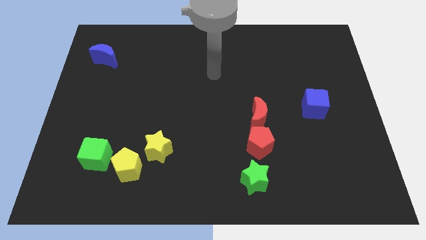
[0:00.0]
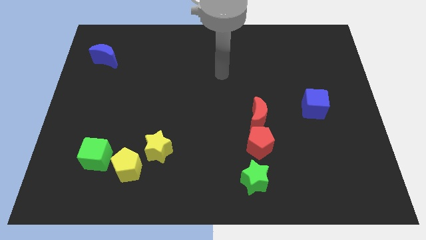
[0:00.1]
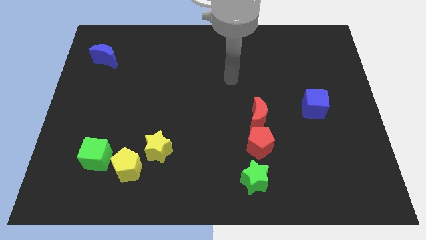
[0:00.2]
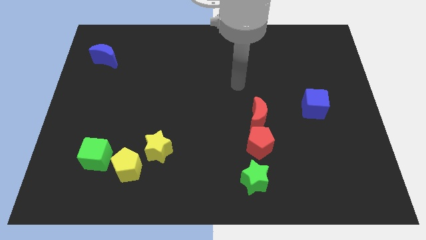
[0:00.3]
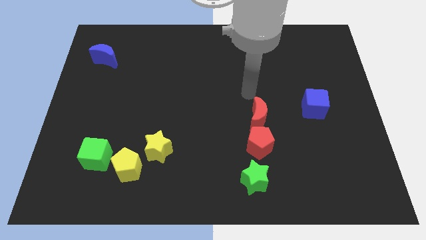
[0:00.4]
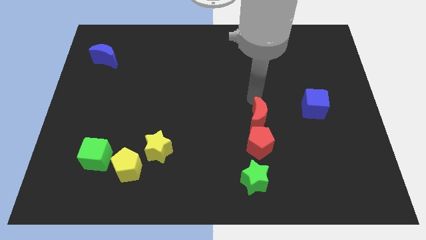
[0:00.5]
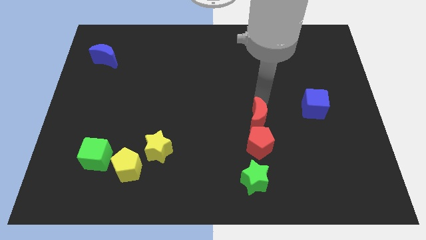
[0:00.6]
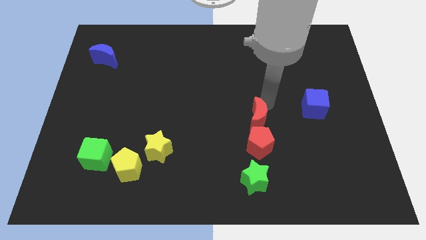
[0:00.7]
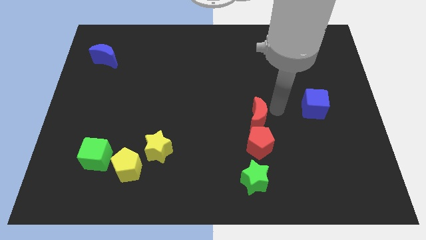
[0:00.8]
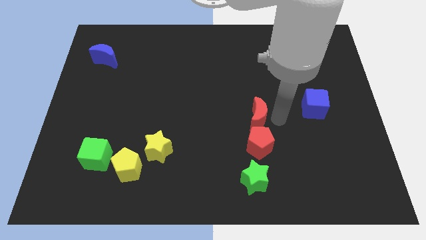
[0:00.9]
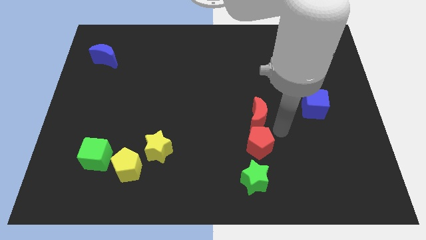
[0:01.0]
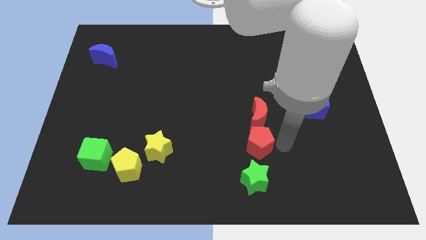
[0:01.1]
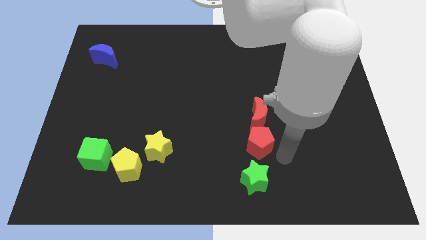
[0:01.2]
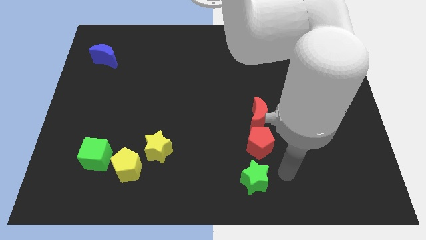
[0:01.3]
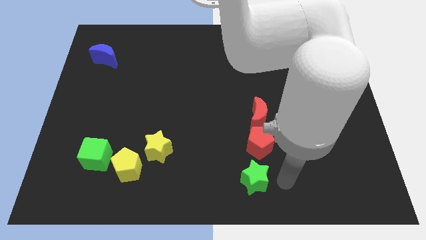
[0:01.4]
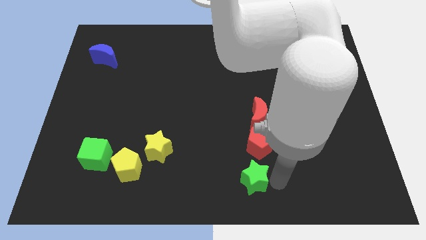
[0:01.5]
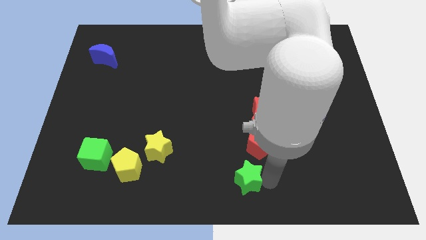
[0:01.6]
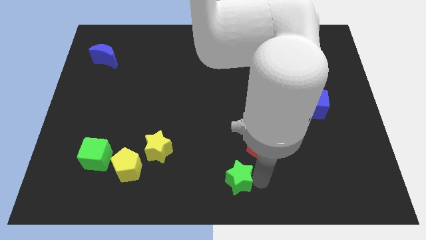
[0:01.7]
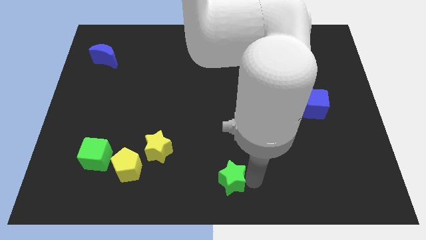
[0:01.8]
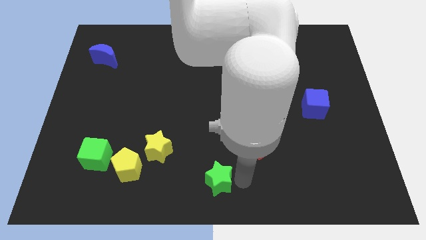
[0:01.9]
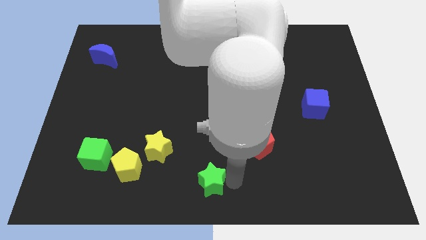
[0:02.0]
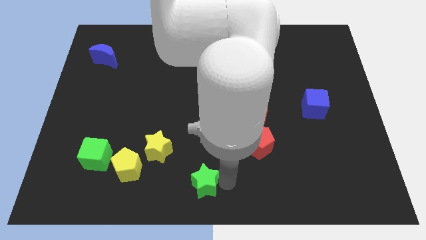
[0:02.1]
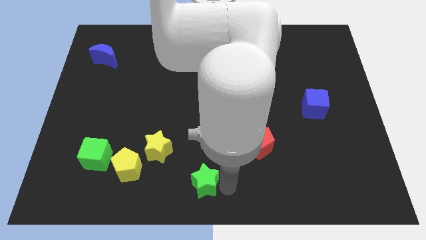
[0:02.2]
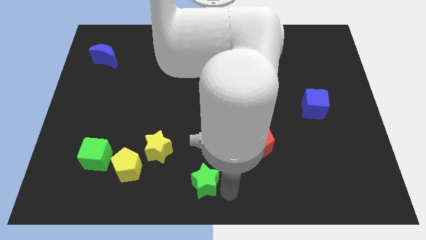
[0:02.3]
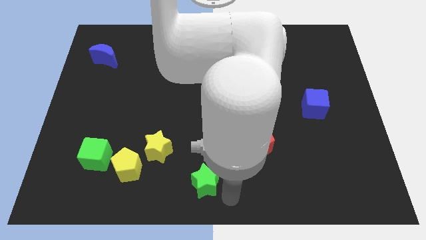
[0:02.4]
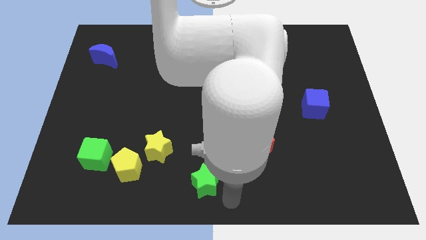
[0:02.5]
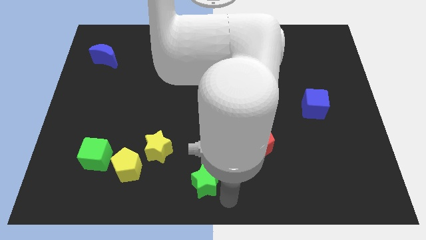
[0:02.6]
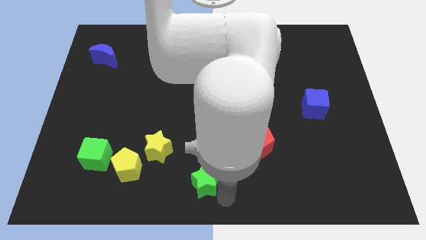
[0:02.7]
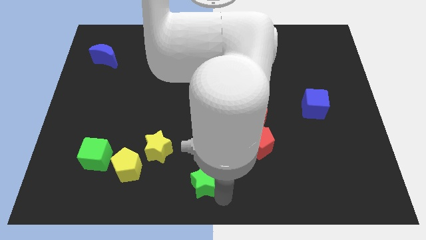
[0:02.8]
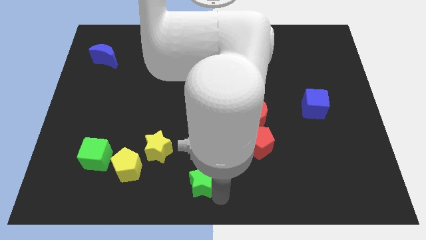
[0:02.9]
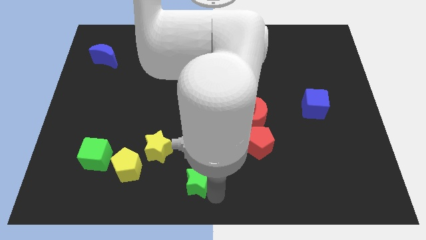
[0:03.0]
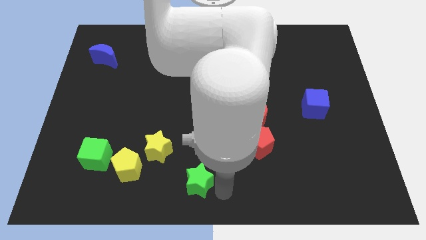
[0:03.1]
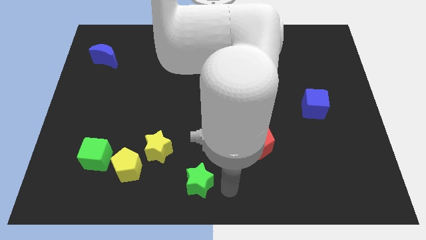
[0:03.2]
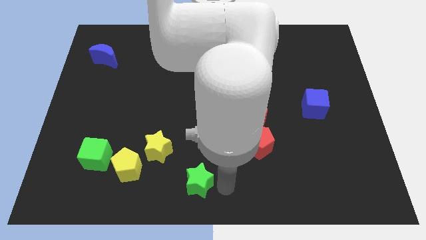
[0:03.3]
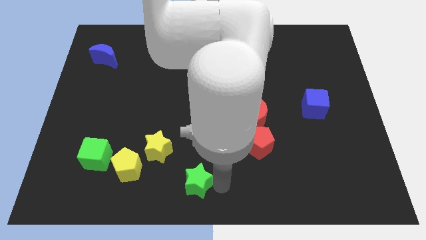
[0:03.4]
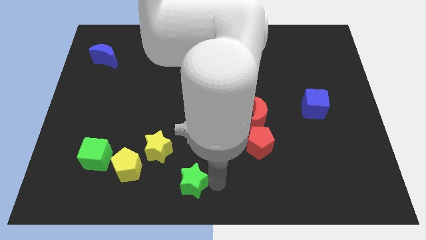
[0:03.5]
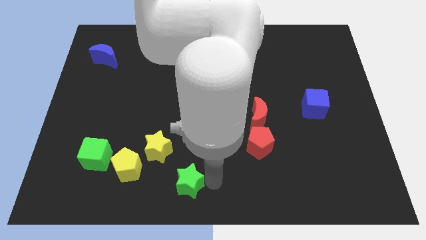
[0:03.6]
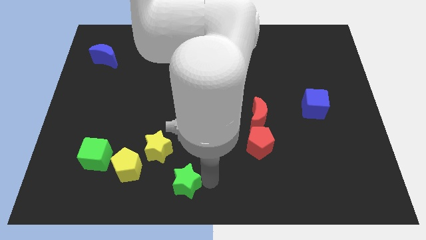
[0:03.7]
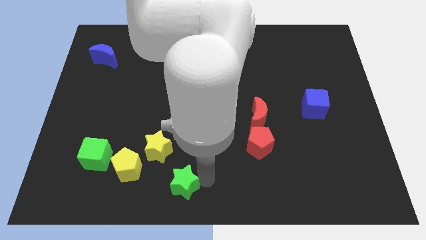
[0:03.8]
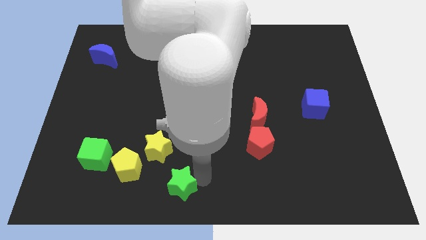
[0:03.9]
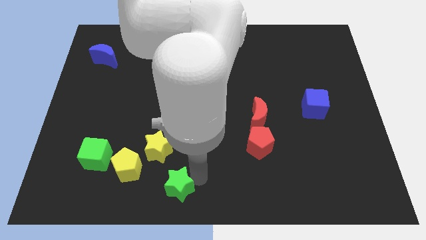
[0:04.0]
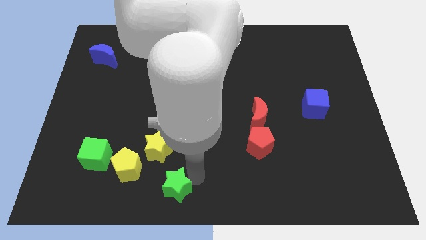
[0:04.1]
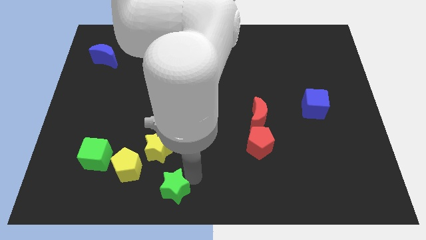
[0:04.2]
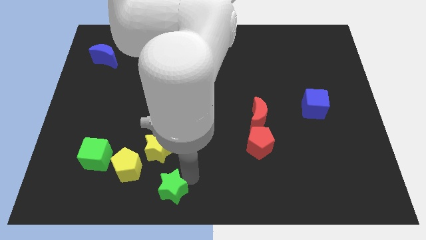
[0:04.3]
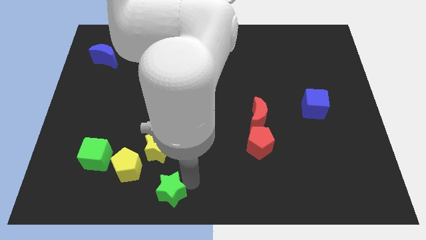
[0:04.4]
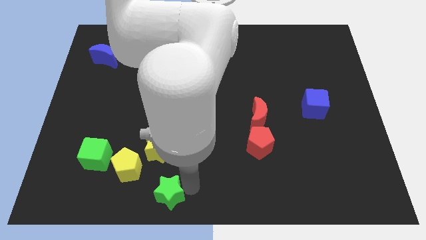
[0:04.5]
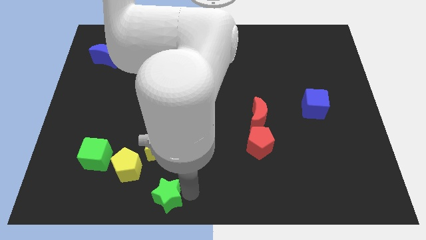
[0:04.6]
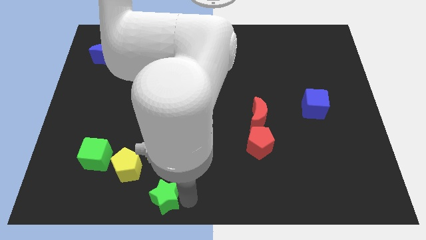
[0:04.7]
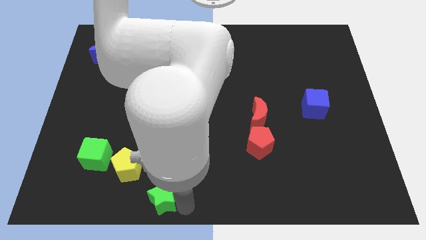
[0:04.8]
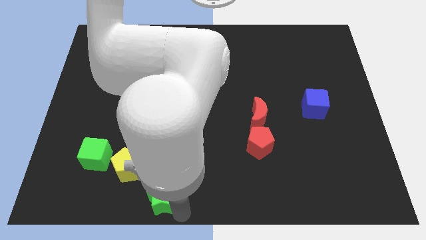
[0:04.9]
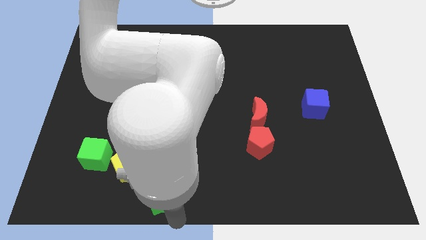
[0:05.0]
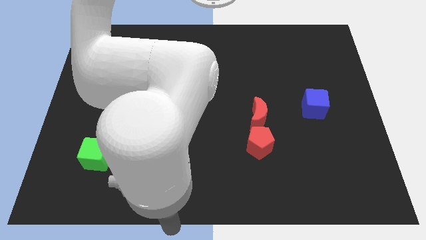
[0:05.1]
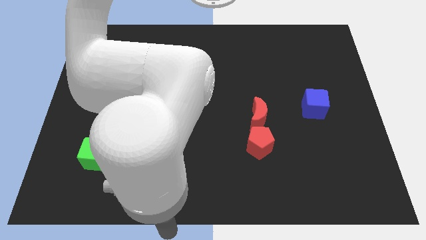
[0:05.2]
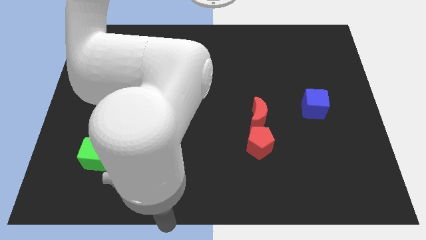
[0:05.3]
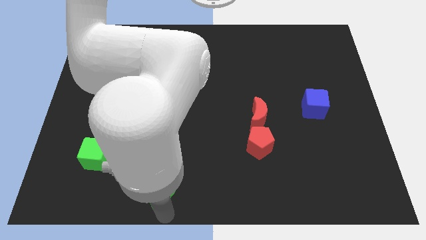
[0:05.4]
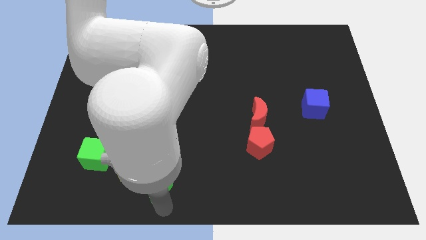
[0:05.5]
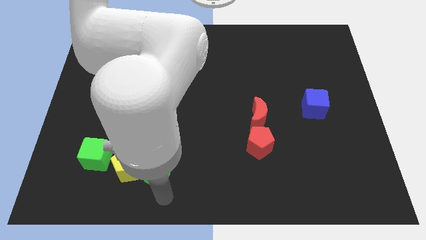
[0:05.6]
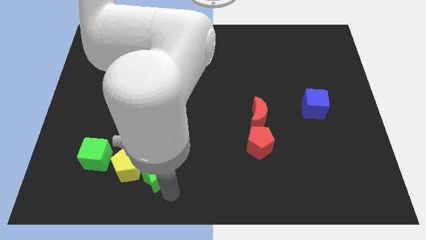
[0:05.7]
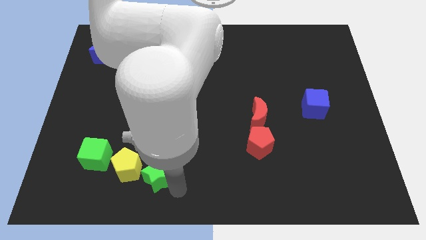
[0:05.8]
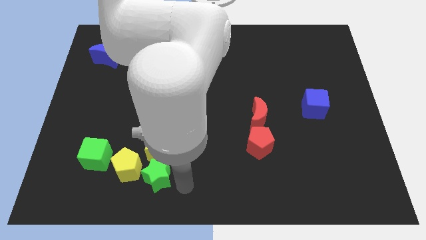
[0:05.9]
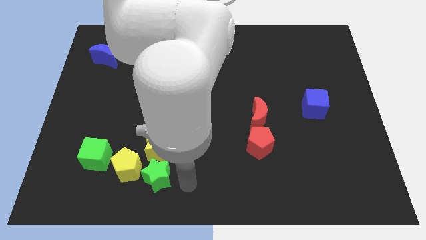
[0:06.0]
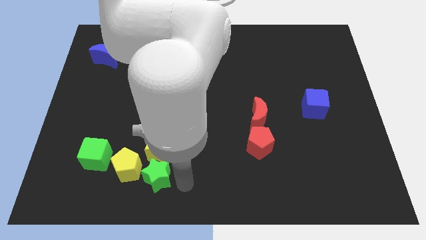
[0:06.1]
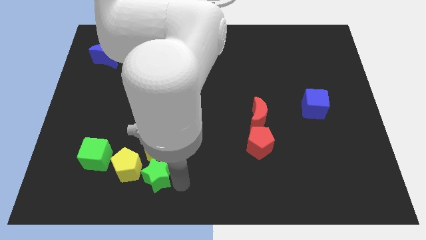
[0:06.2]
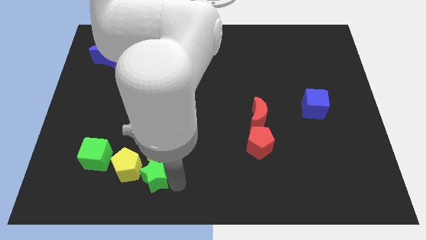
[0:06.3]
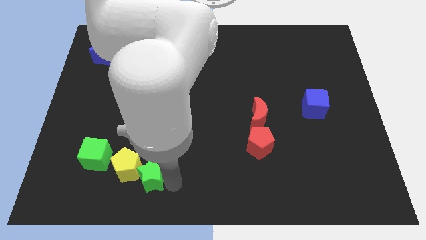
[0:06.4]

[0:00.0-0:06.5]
push the green star close to the yellow pentagon

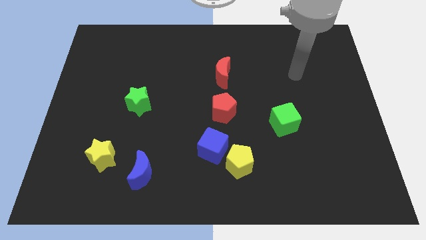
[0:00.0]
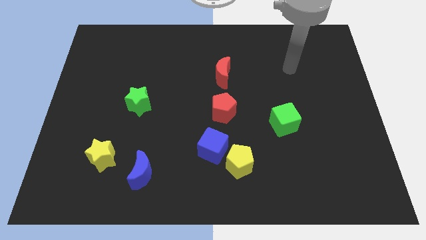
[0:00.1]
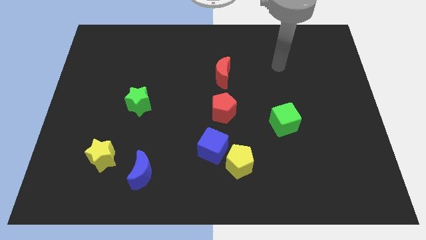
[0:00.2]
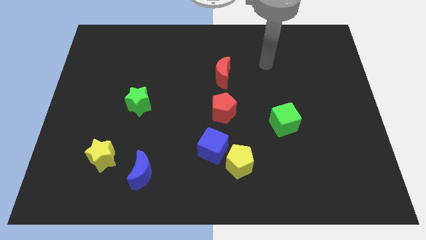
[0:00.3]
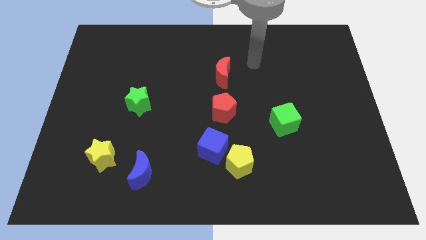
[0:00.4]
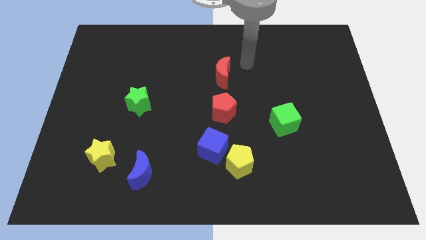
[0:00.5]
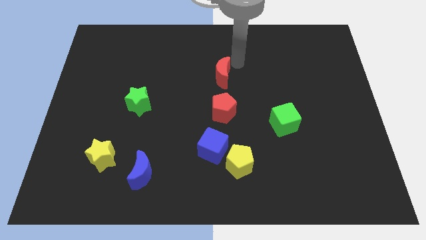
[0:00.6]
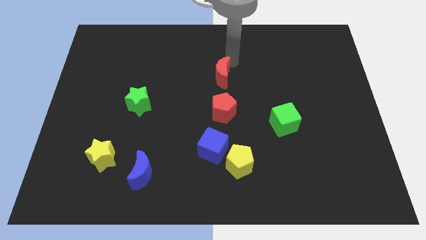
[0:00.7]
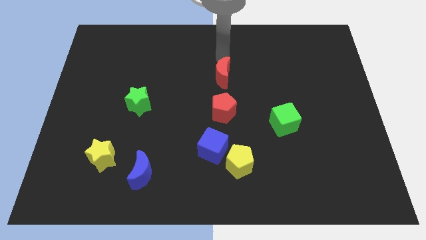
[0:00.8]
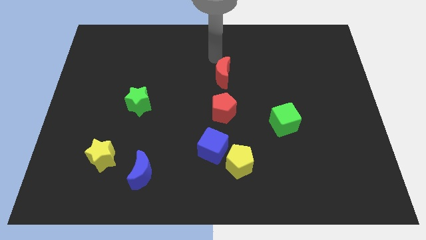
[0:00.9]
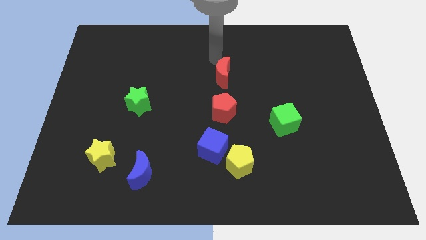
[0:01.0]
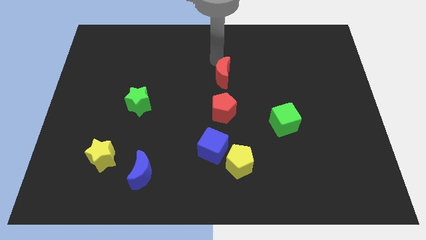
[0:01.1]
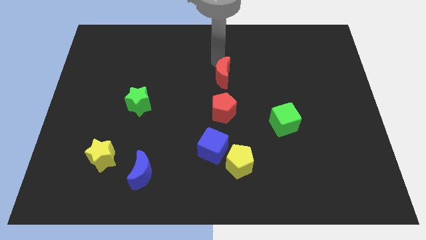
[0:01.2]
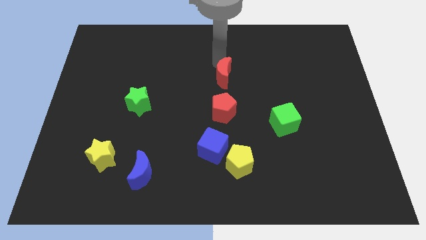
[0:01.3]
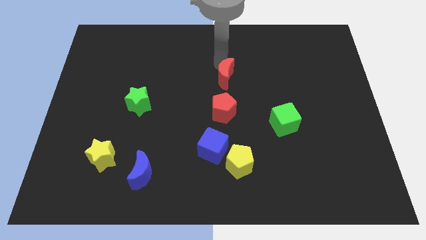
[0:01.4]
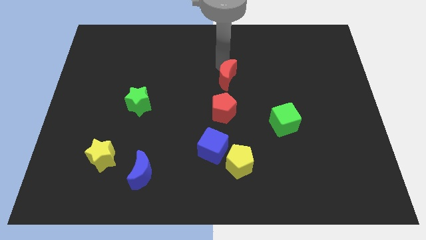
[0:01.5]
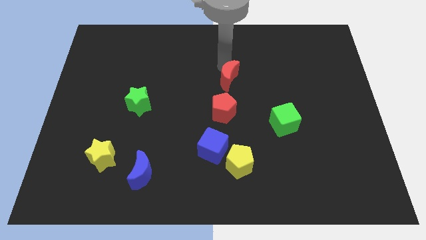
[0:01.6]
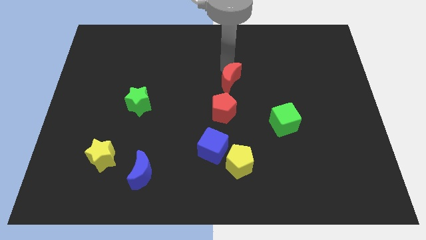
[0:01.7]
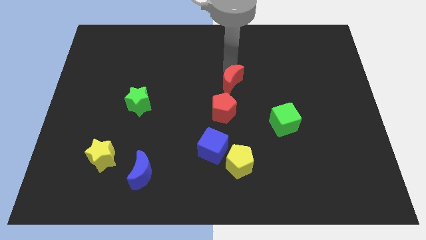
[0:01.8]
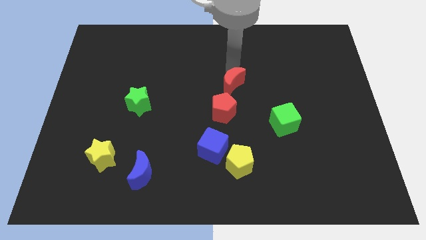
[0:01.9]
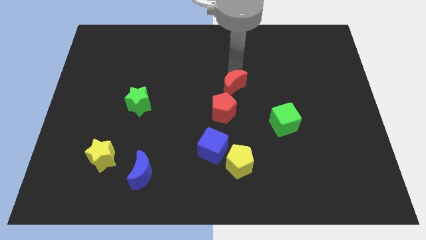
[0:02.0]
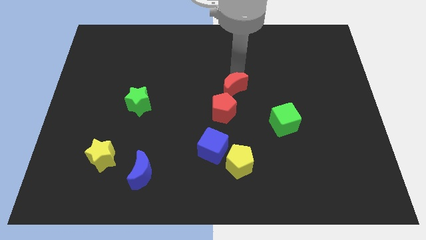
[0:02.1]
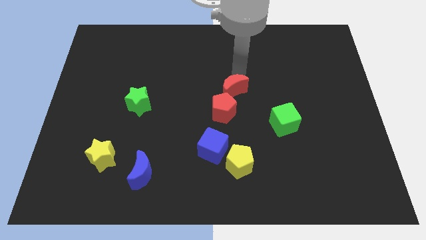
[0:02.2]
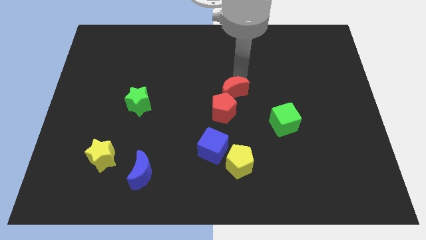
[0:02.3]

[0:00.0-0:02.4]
push the red moon to the red pentagon
